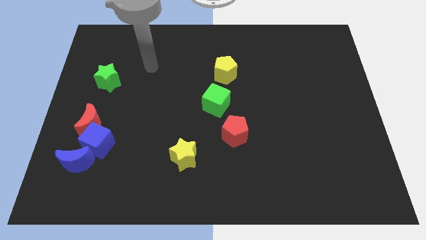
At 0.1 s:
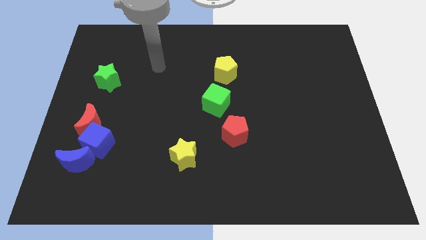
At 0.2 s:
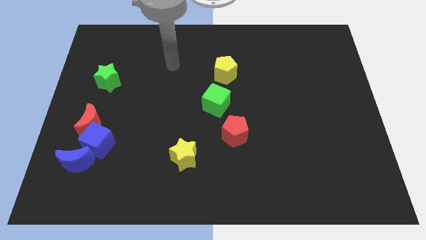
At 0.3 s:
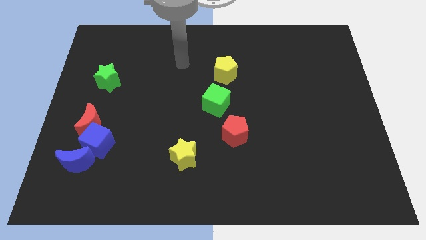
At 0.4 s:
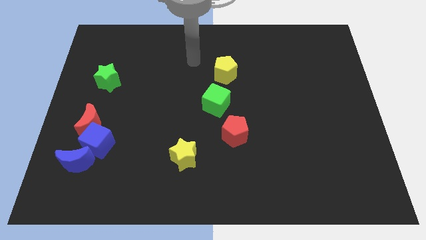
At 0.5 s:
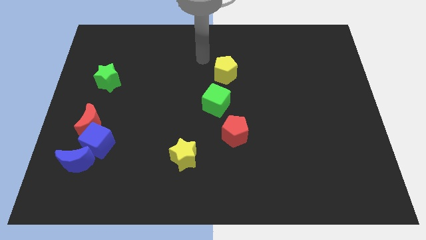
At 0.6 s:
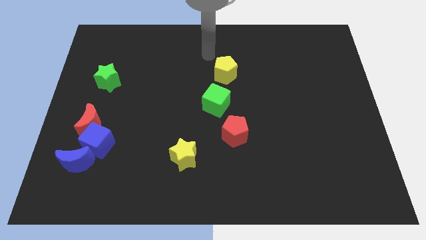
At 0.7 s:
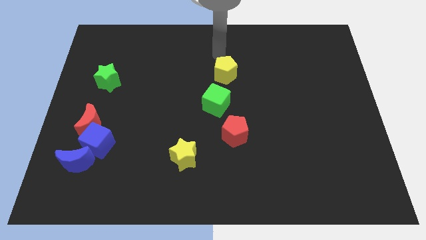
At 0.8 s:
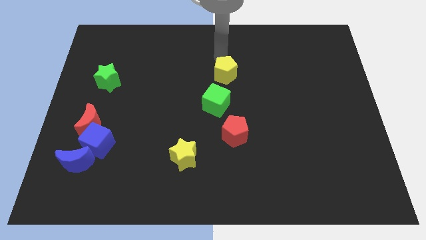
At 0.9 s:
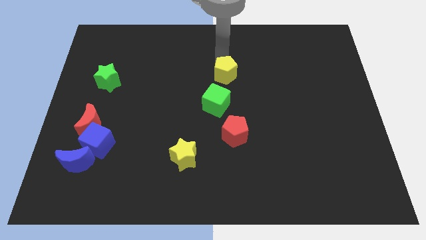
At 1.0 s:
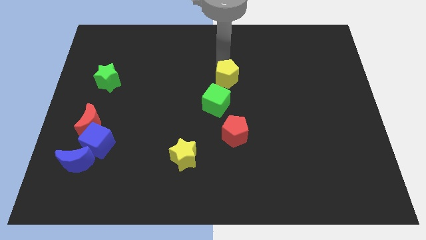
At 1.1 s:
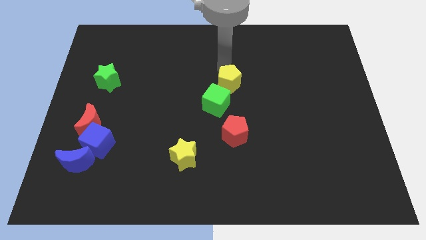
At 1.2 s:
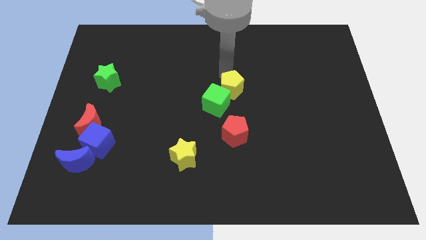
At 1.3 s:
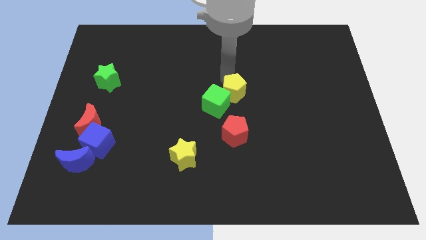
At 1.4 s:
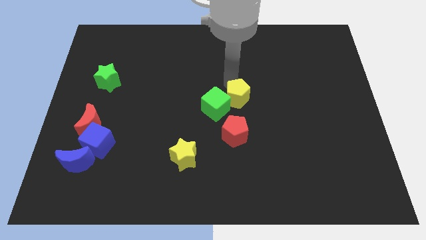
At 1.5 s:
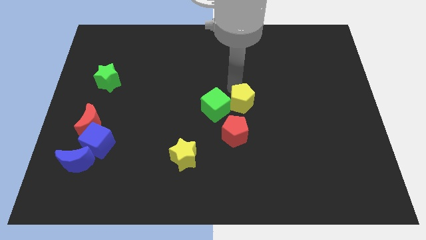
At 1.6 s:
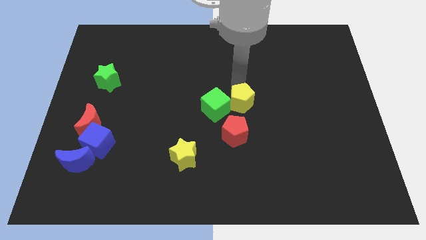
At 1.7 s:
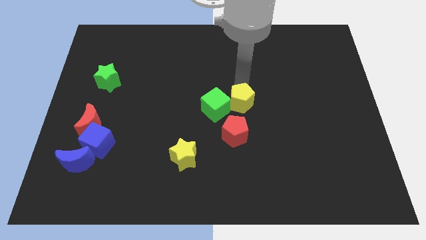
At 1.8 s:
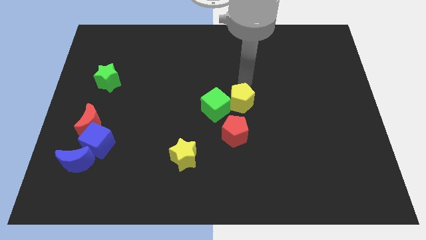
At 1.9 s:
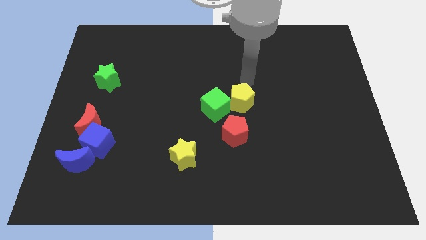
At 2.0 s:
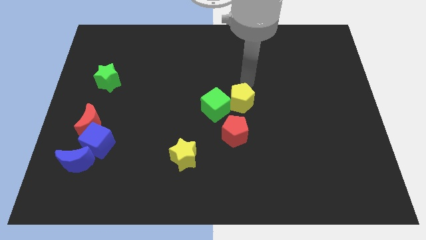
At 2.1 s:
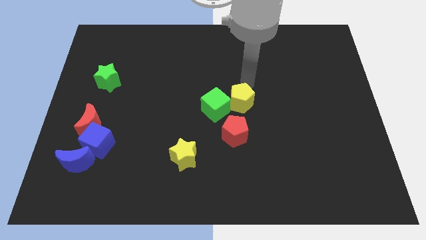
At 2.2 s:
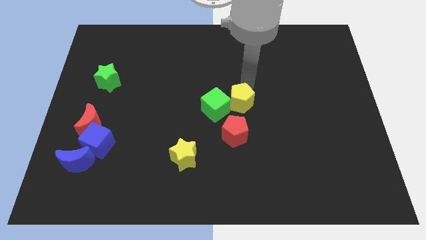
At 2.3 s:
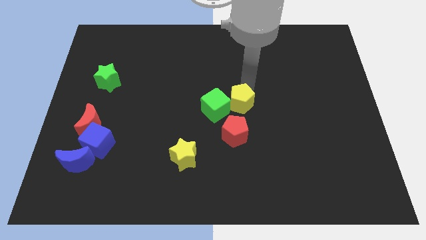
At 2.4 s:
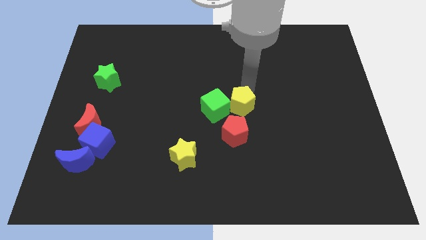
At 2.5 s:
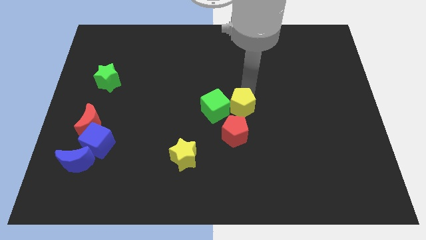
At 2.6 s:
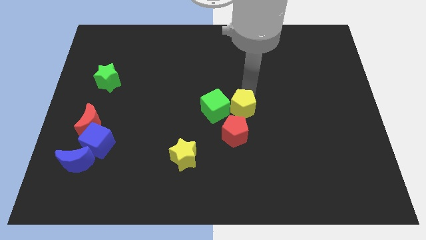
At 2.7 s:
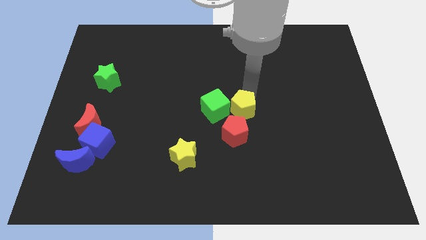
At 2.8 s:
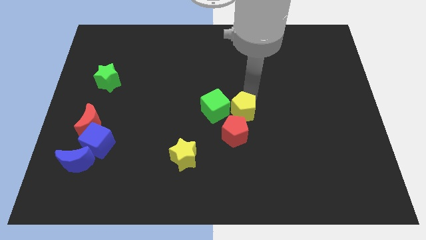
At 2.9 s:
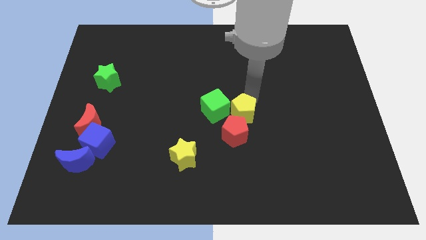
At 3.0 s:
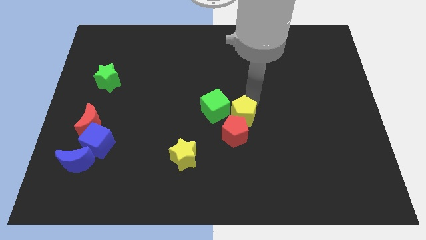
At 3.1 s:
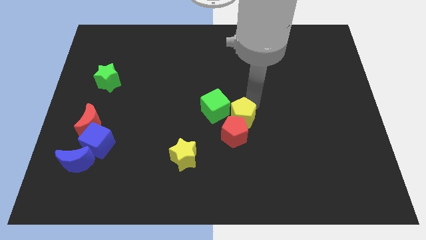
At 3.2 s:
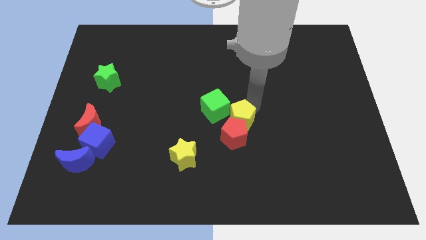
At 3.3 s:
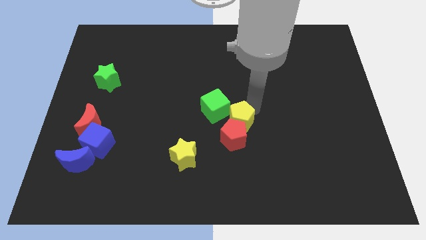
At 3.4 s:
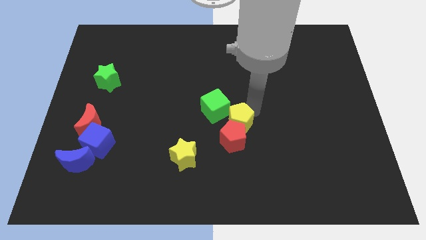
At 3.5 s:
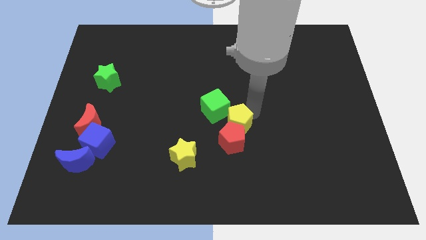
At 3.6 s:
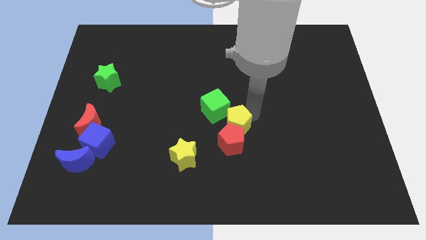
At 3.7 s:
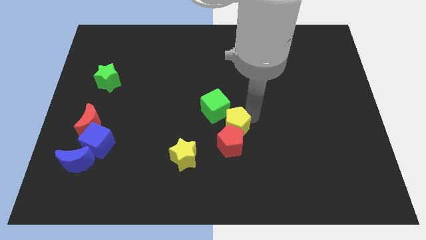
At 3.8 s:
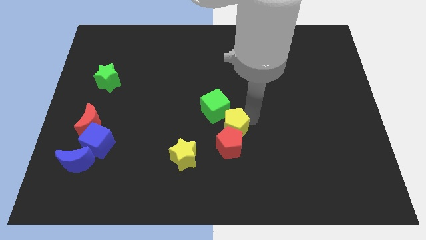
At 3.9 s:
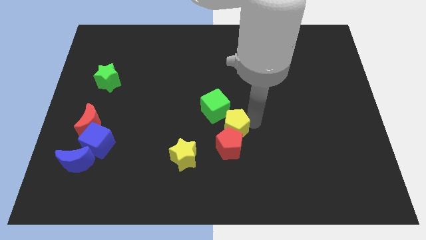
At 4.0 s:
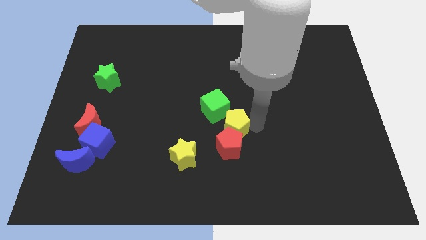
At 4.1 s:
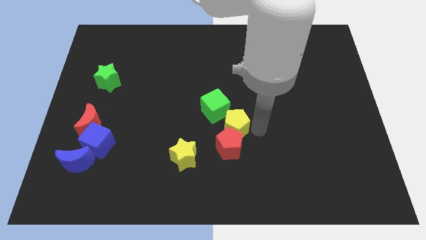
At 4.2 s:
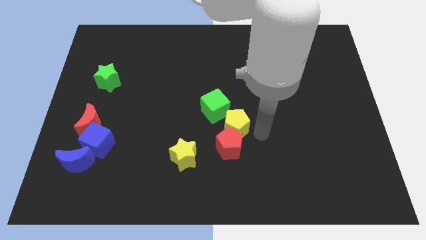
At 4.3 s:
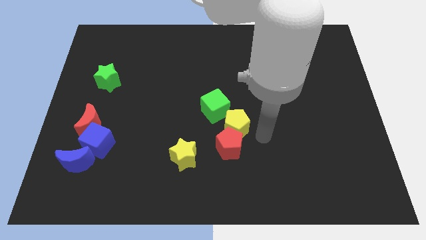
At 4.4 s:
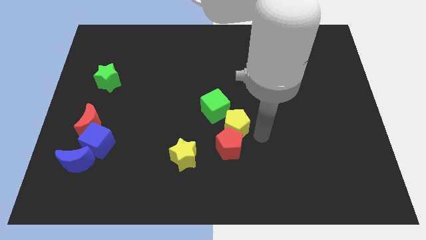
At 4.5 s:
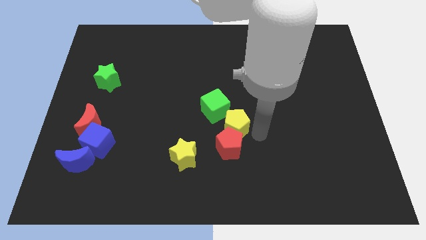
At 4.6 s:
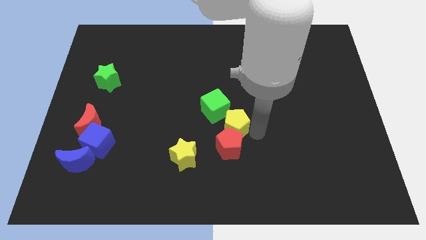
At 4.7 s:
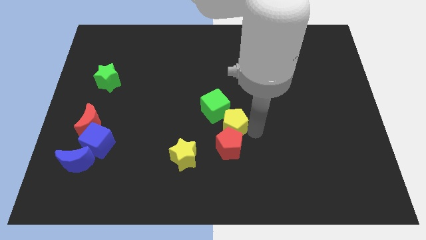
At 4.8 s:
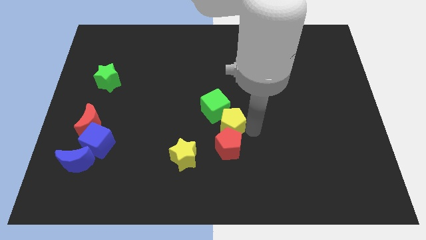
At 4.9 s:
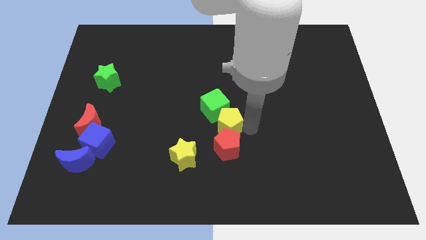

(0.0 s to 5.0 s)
put the yellow pentagon to the top right of the yellow star

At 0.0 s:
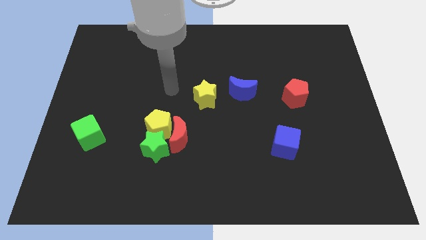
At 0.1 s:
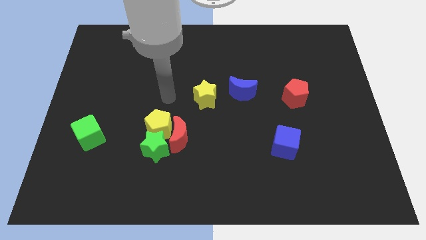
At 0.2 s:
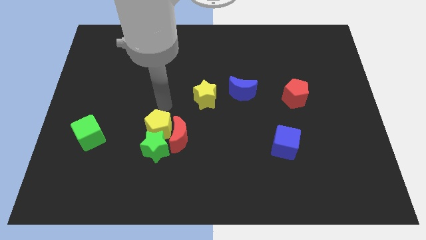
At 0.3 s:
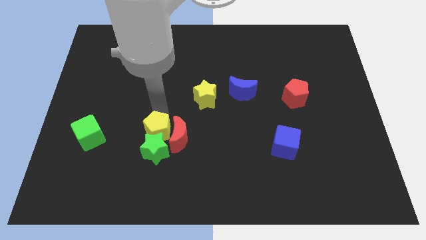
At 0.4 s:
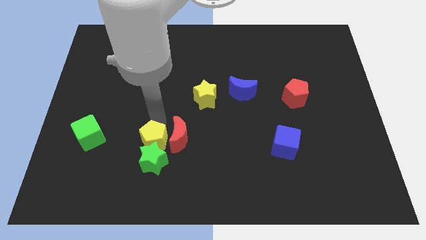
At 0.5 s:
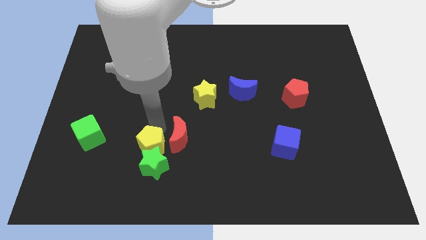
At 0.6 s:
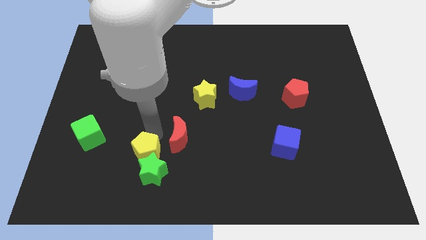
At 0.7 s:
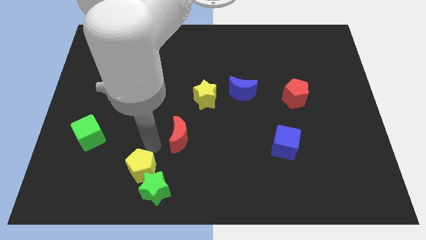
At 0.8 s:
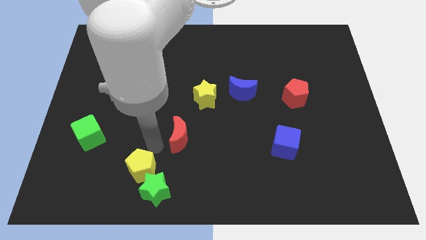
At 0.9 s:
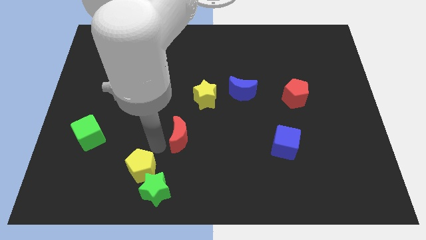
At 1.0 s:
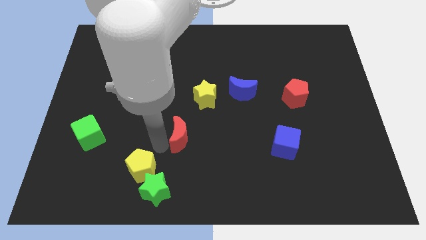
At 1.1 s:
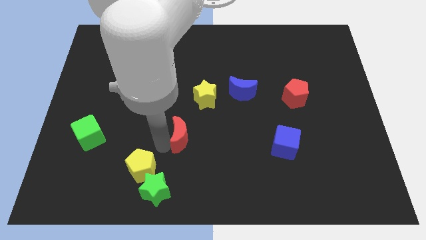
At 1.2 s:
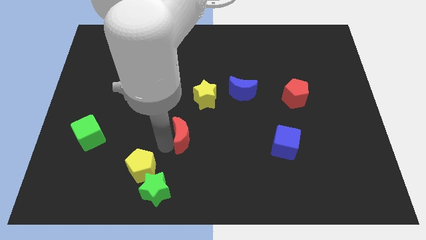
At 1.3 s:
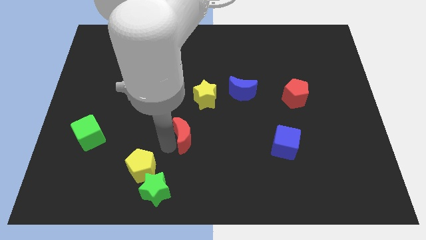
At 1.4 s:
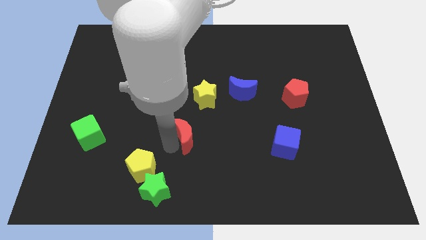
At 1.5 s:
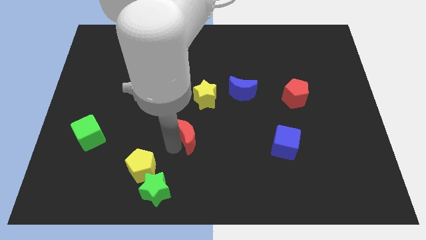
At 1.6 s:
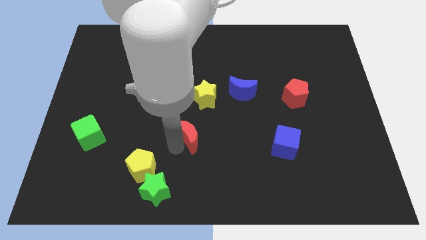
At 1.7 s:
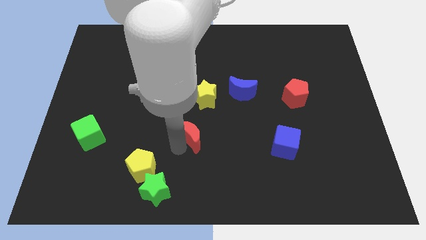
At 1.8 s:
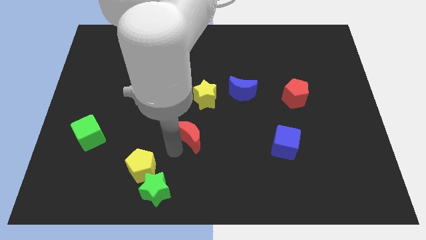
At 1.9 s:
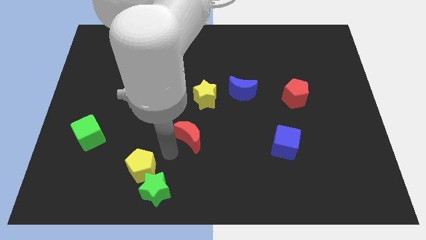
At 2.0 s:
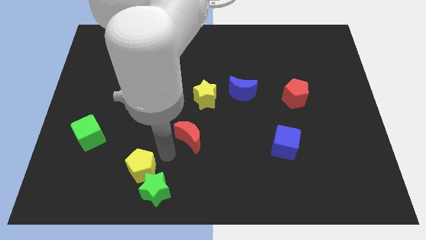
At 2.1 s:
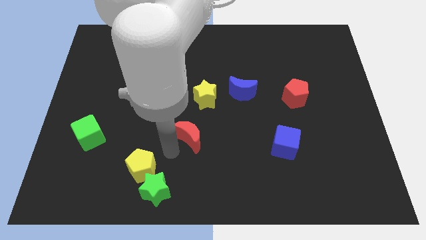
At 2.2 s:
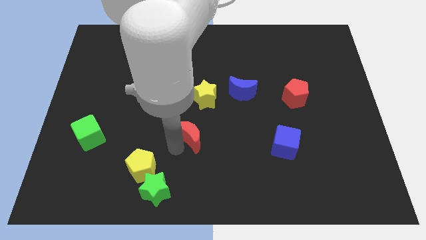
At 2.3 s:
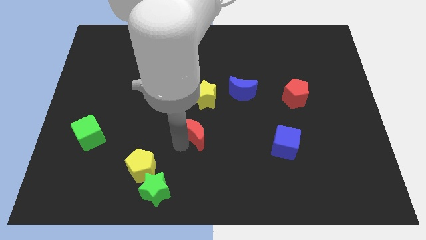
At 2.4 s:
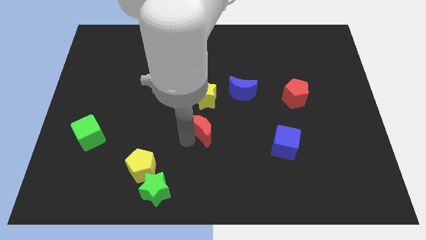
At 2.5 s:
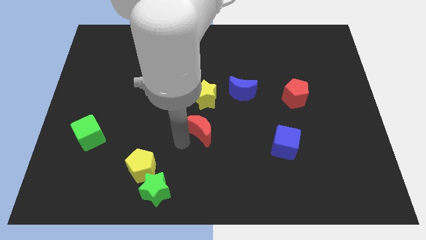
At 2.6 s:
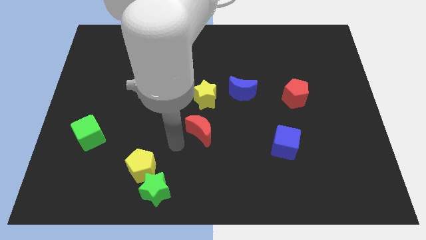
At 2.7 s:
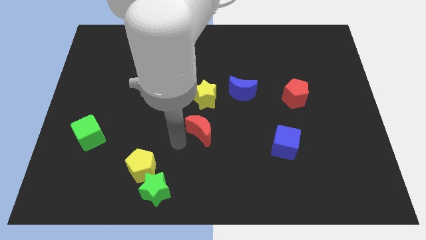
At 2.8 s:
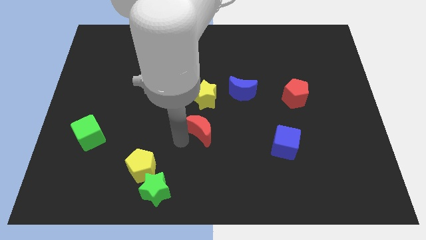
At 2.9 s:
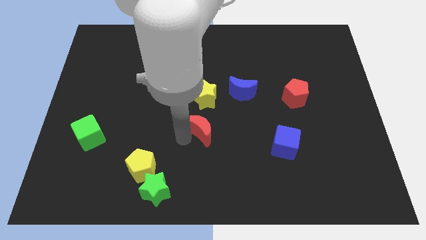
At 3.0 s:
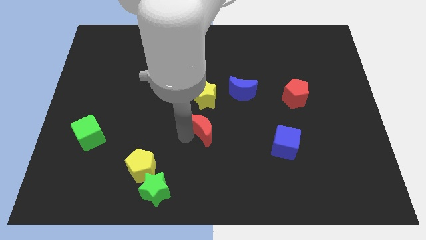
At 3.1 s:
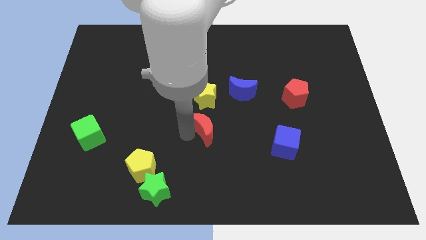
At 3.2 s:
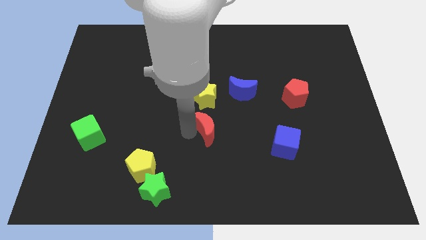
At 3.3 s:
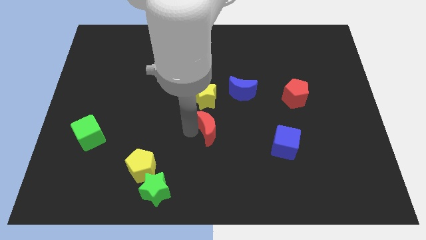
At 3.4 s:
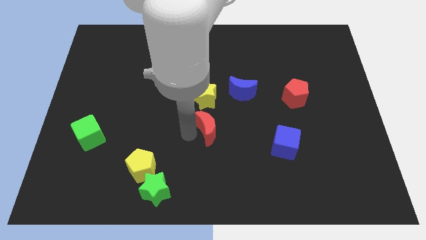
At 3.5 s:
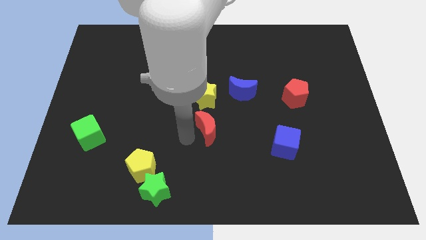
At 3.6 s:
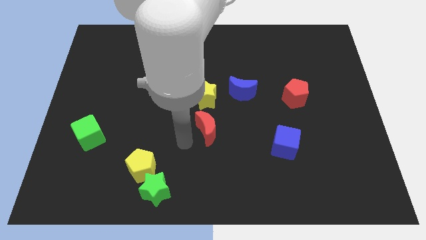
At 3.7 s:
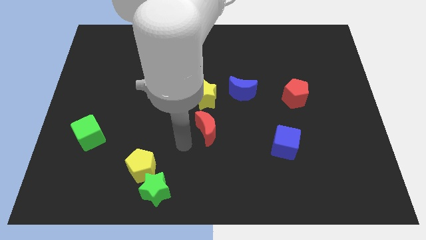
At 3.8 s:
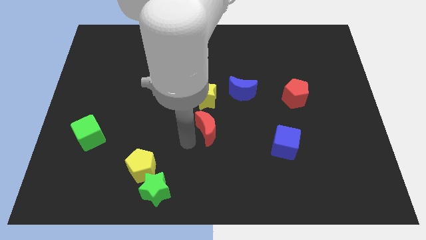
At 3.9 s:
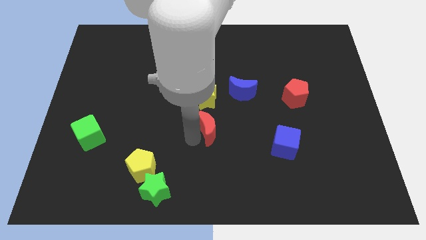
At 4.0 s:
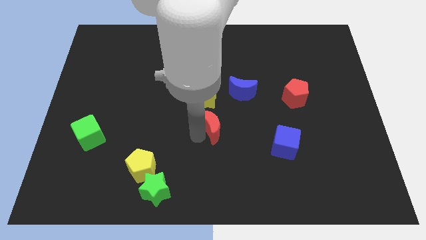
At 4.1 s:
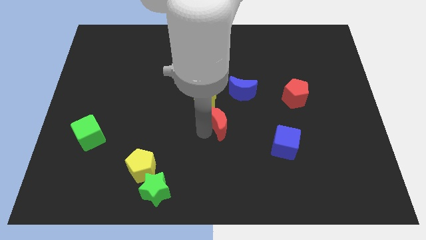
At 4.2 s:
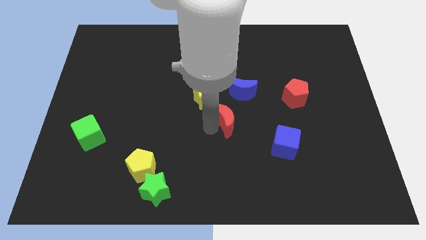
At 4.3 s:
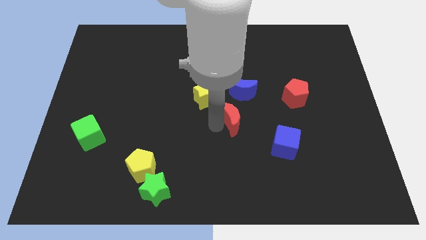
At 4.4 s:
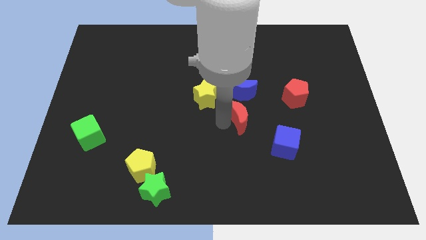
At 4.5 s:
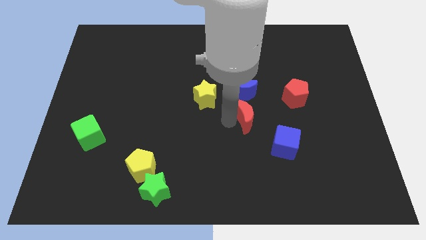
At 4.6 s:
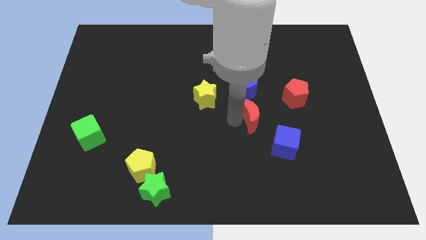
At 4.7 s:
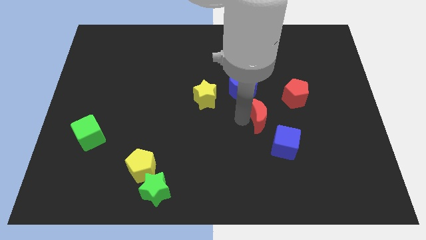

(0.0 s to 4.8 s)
slide the red moon to the bottom left side of the red pentagon
